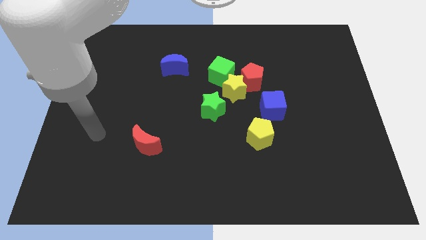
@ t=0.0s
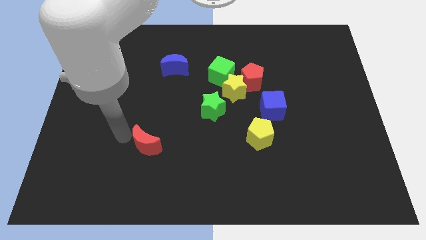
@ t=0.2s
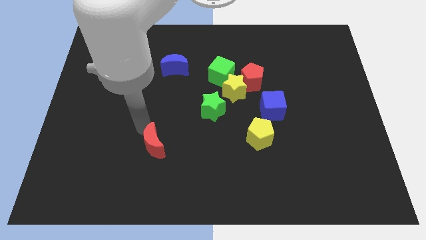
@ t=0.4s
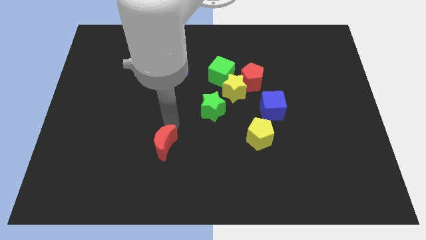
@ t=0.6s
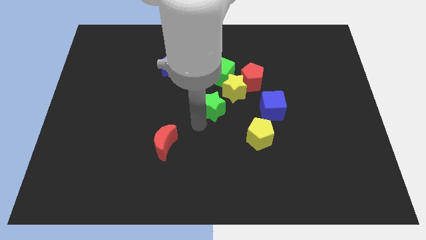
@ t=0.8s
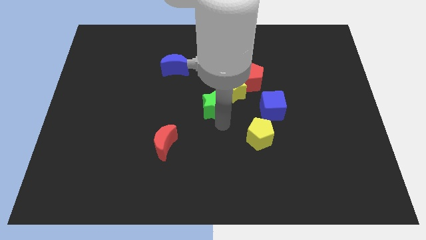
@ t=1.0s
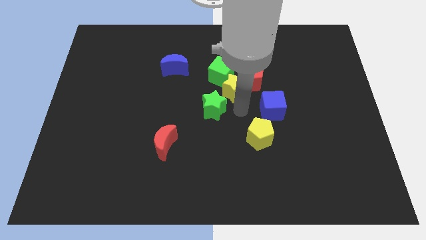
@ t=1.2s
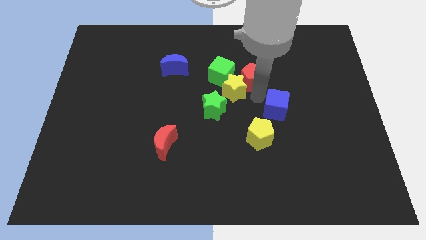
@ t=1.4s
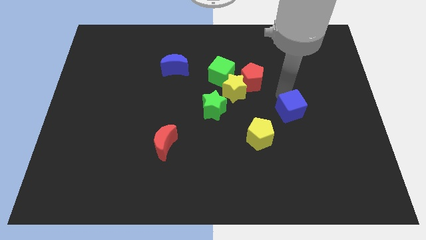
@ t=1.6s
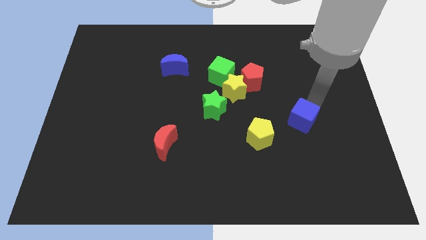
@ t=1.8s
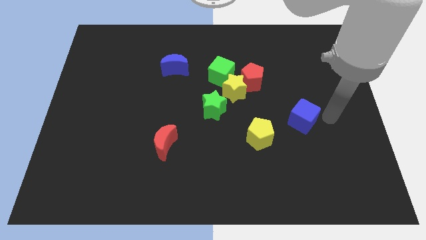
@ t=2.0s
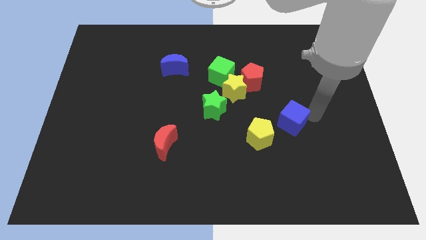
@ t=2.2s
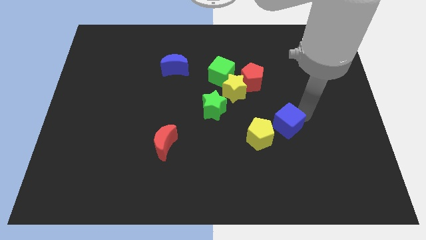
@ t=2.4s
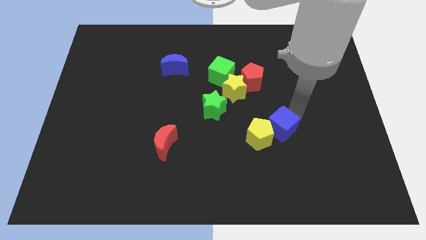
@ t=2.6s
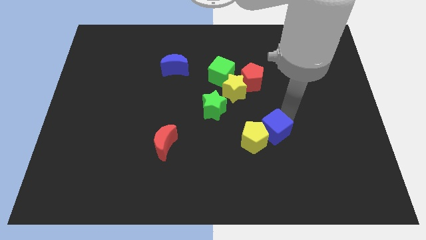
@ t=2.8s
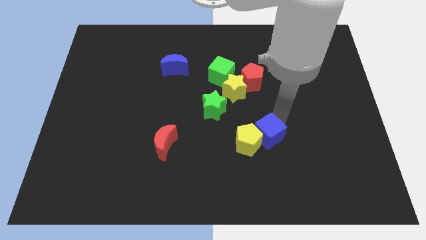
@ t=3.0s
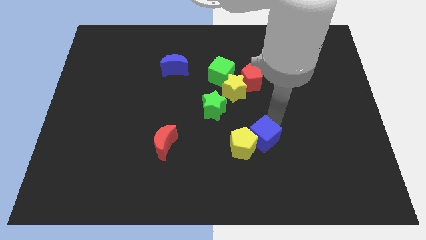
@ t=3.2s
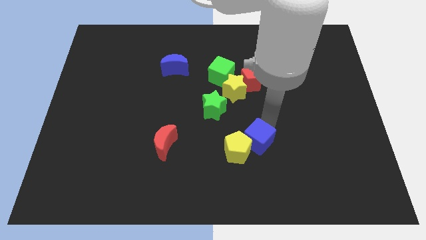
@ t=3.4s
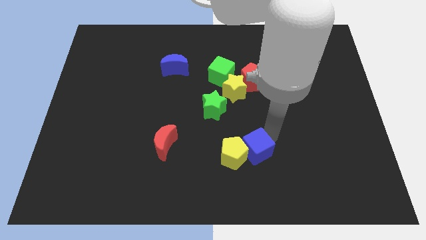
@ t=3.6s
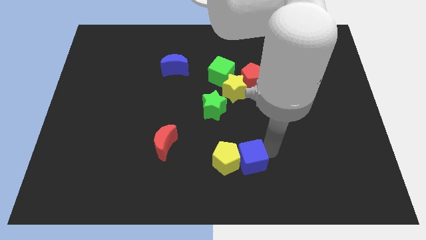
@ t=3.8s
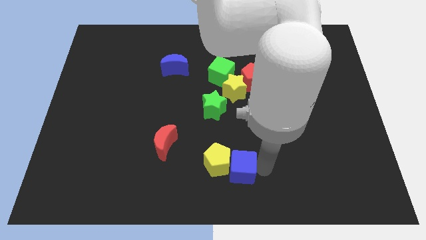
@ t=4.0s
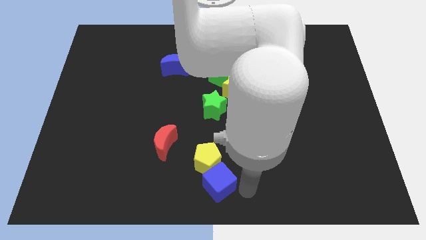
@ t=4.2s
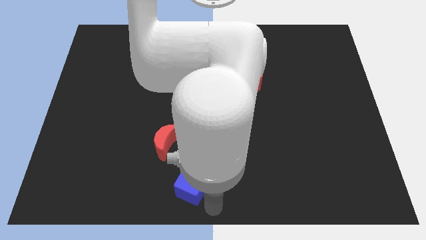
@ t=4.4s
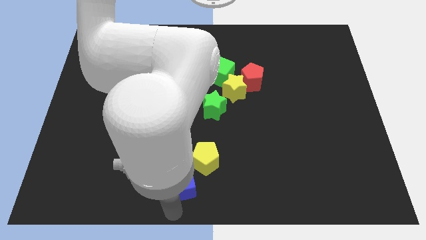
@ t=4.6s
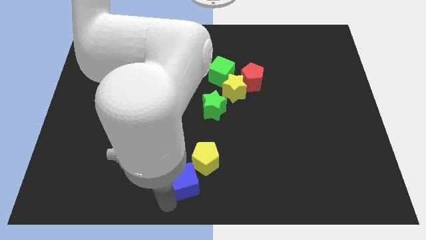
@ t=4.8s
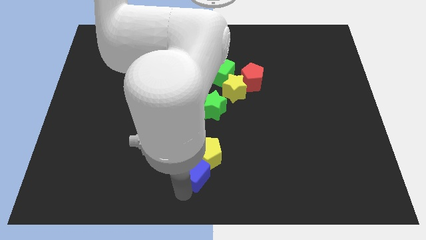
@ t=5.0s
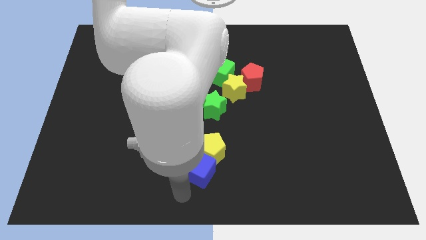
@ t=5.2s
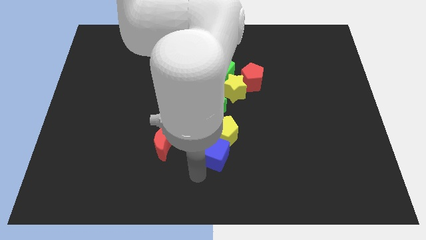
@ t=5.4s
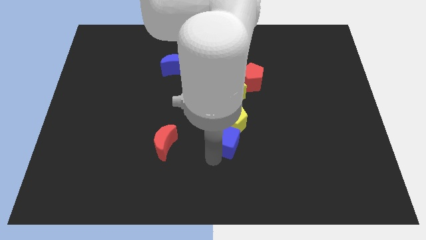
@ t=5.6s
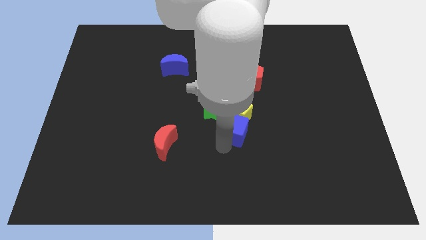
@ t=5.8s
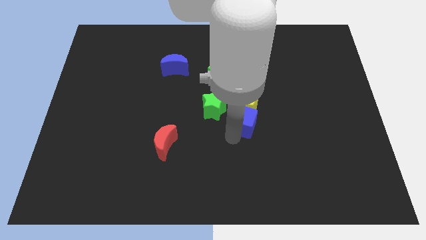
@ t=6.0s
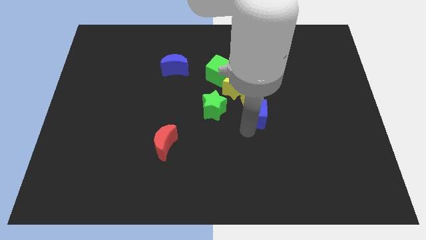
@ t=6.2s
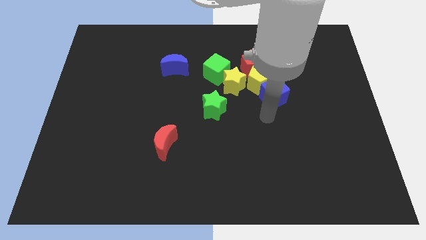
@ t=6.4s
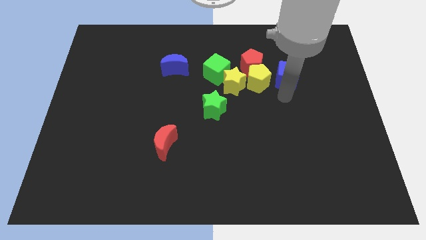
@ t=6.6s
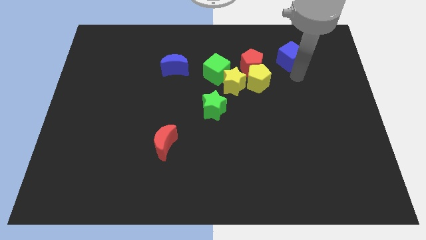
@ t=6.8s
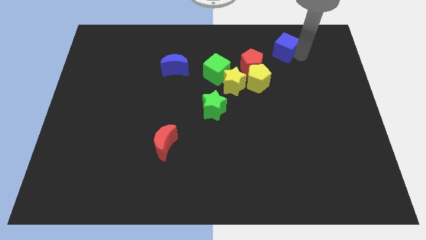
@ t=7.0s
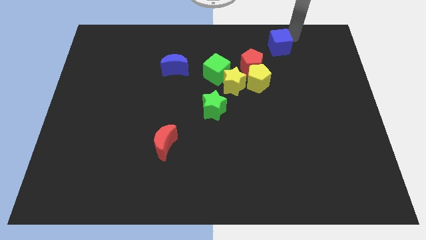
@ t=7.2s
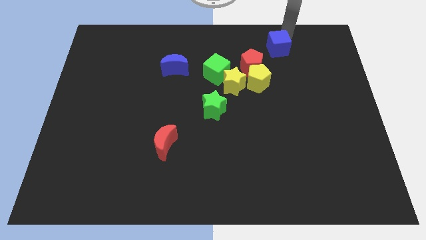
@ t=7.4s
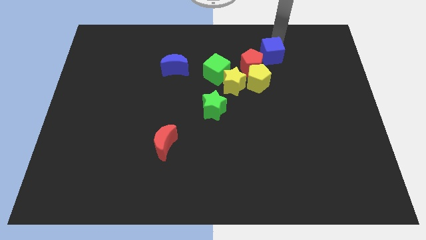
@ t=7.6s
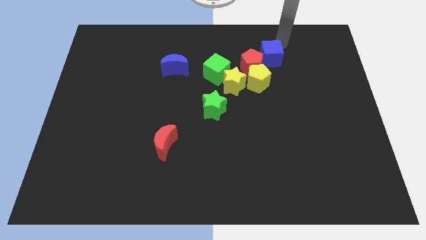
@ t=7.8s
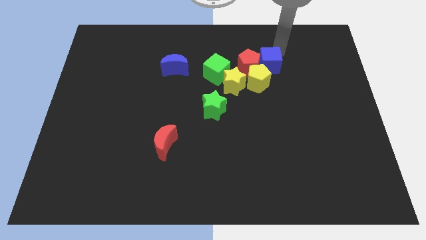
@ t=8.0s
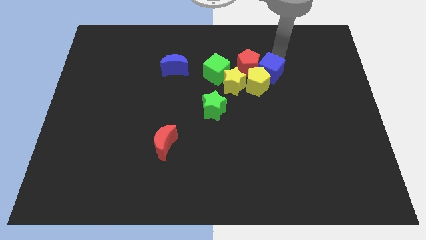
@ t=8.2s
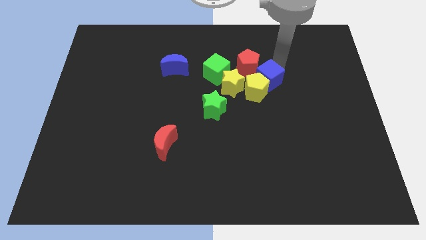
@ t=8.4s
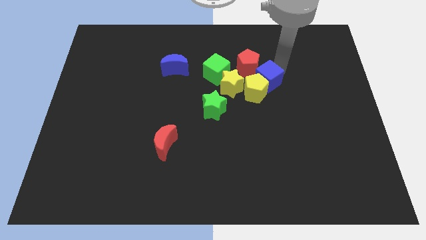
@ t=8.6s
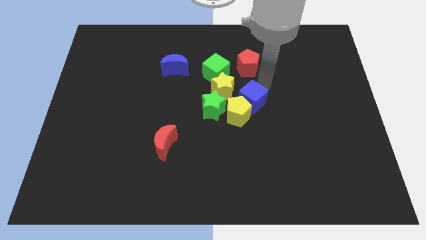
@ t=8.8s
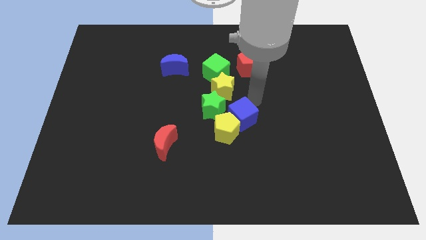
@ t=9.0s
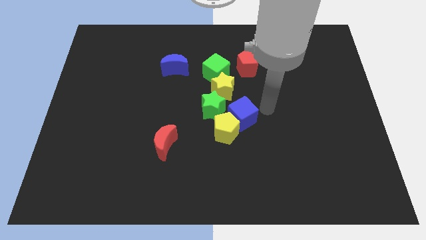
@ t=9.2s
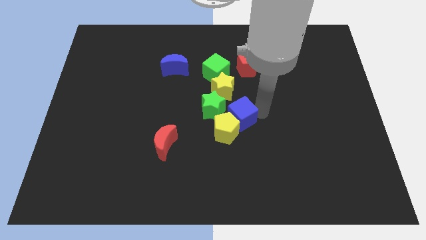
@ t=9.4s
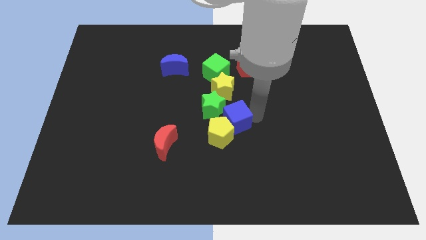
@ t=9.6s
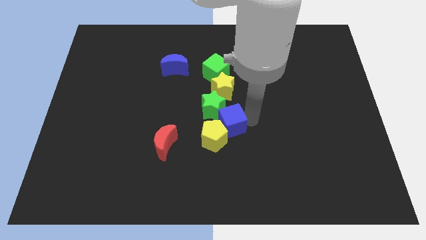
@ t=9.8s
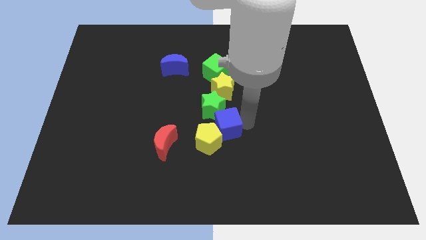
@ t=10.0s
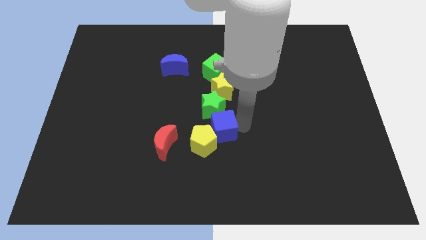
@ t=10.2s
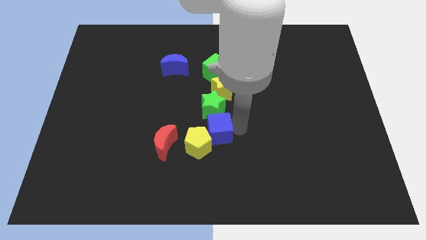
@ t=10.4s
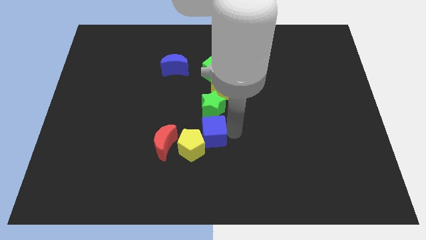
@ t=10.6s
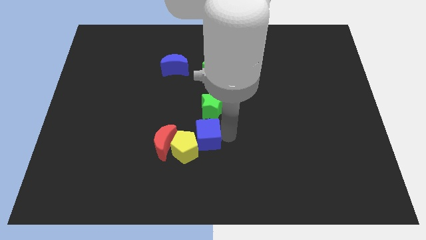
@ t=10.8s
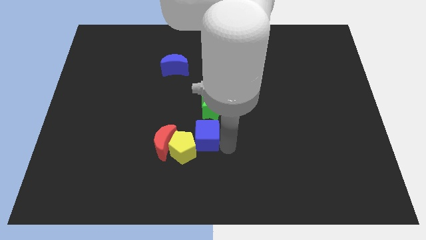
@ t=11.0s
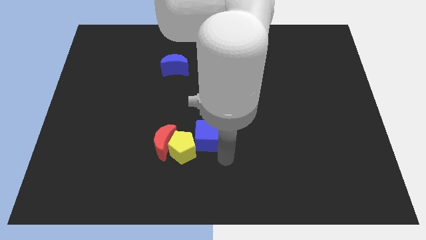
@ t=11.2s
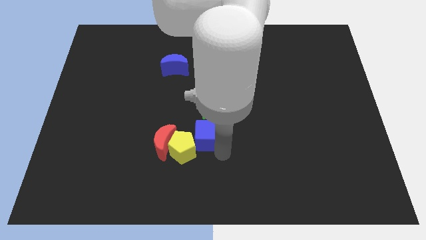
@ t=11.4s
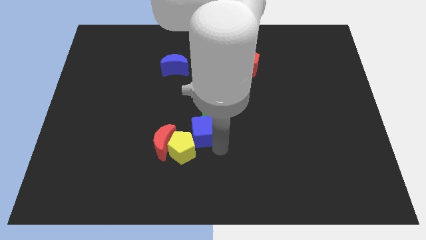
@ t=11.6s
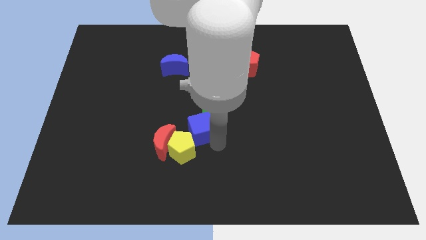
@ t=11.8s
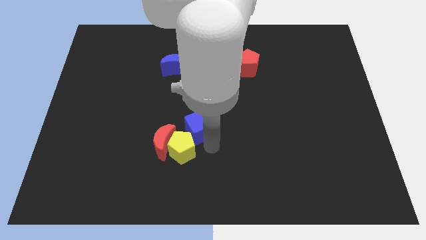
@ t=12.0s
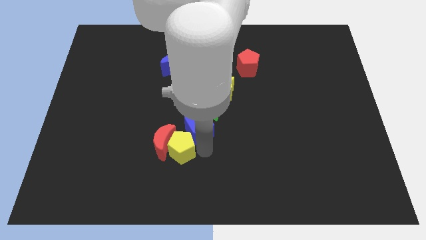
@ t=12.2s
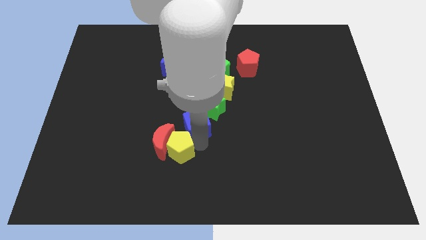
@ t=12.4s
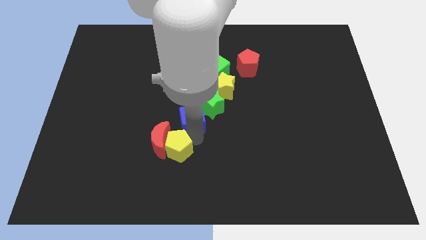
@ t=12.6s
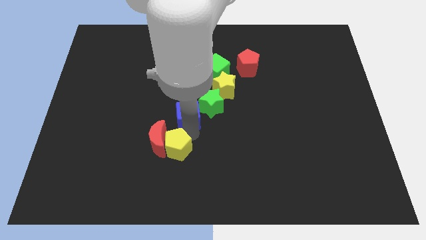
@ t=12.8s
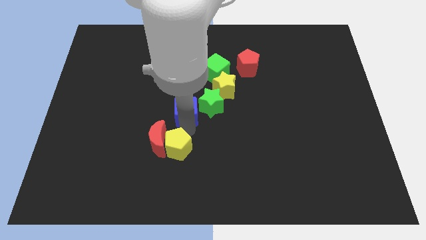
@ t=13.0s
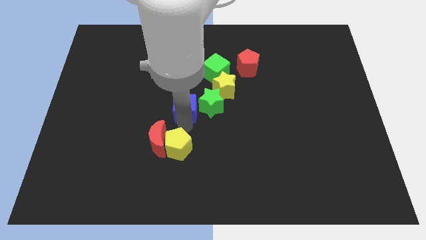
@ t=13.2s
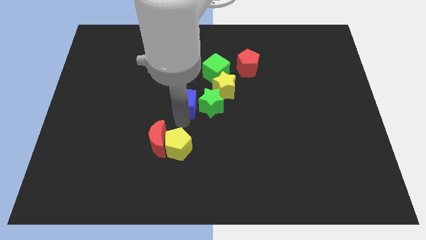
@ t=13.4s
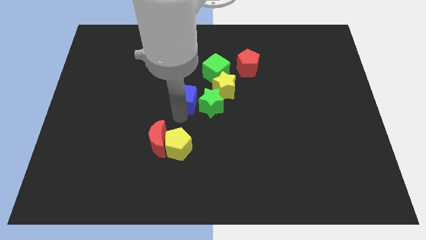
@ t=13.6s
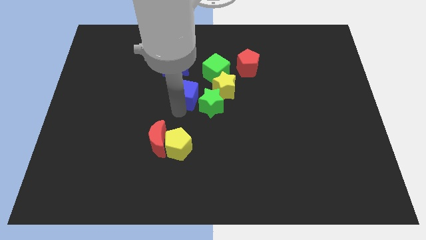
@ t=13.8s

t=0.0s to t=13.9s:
move the blue cube diagonally down and to the right of the blue moon
